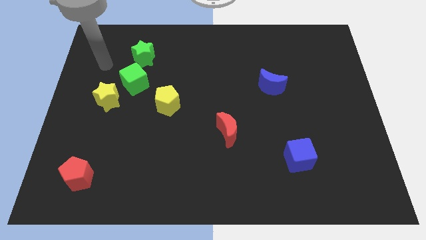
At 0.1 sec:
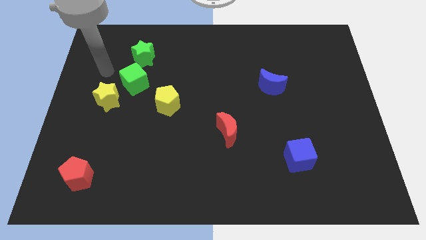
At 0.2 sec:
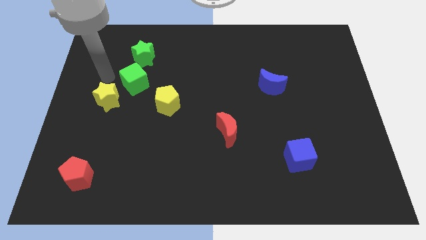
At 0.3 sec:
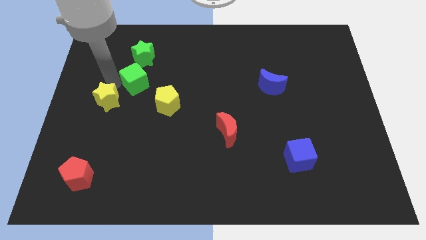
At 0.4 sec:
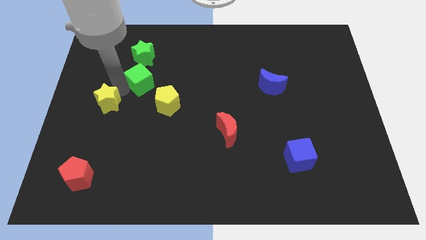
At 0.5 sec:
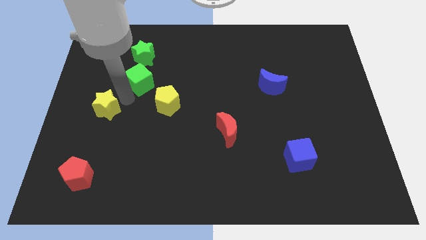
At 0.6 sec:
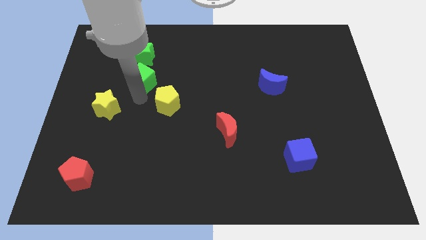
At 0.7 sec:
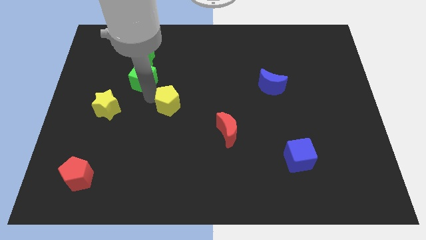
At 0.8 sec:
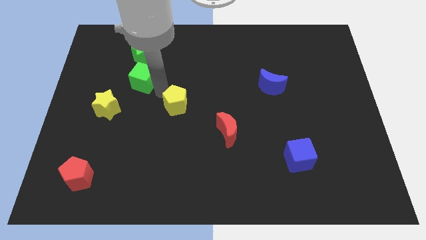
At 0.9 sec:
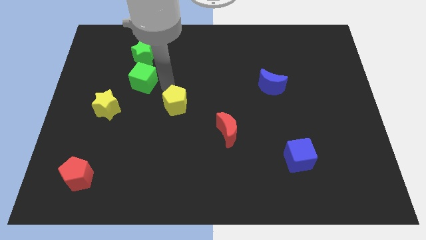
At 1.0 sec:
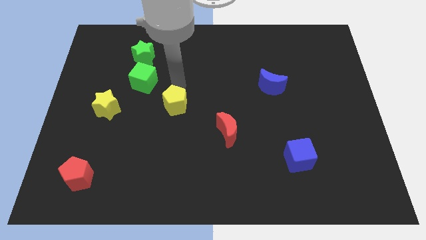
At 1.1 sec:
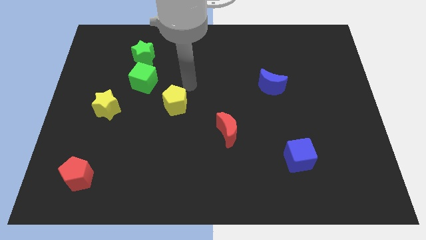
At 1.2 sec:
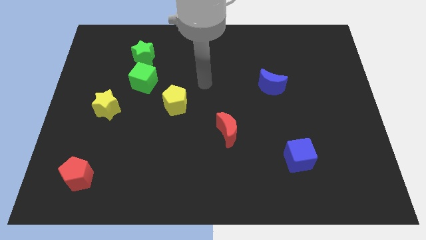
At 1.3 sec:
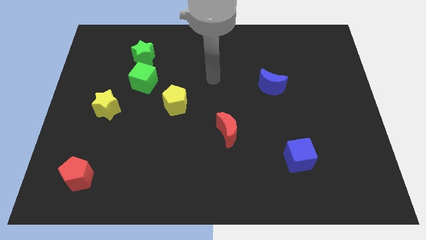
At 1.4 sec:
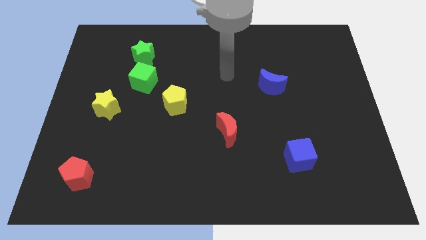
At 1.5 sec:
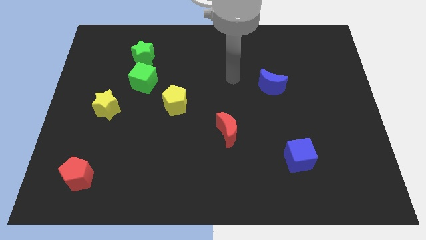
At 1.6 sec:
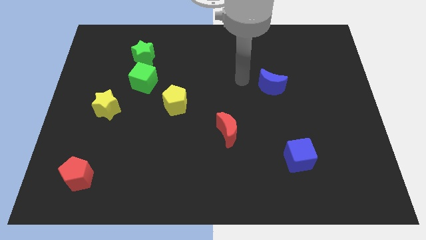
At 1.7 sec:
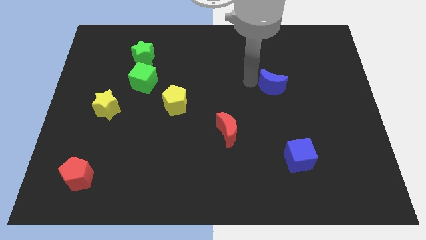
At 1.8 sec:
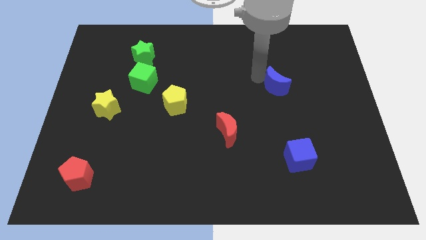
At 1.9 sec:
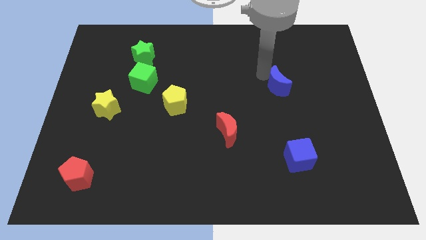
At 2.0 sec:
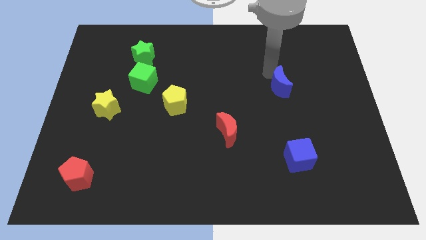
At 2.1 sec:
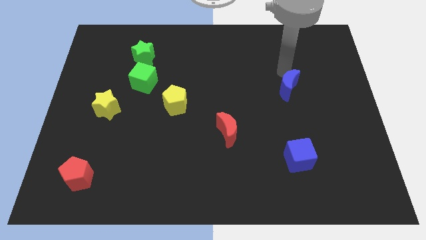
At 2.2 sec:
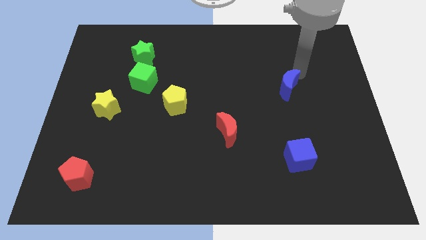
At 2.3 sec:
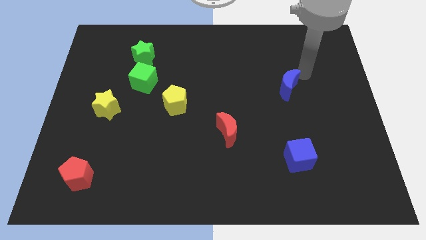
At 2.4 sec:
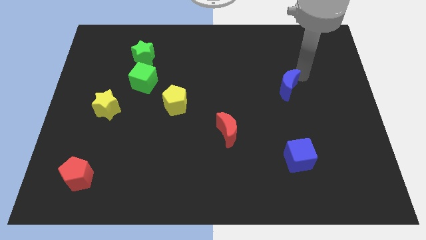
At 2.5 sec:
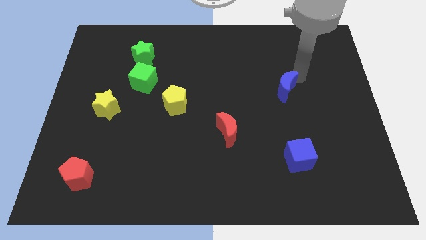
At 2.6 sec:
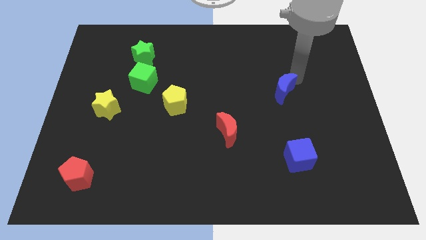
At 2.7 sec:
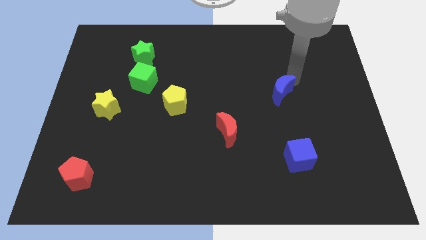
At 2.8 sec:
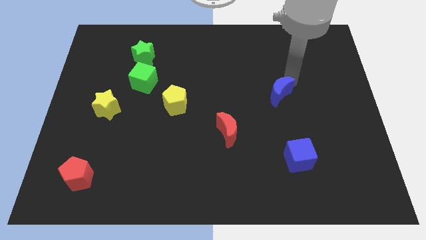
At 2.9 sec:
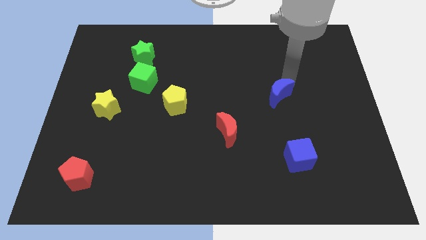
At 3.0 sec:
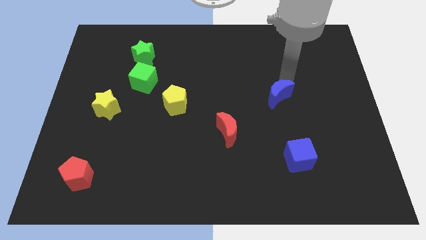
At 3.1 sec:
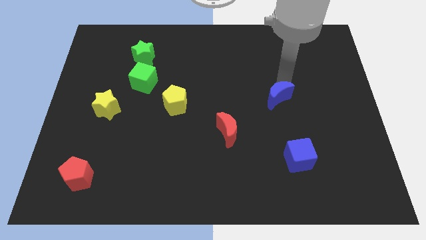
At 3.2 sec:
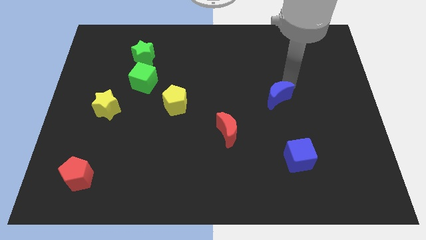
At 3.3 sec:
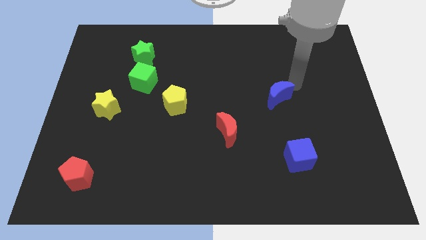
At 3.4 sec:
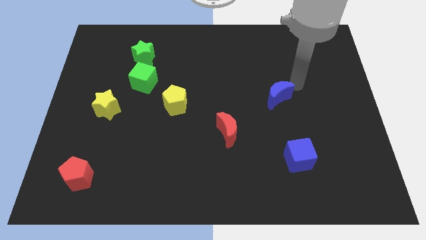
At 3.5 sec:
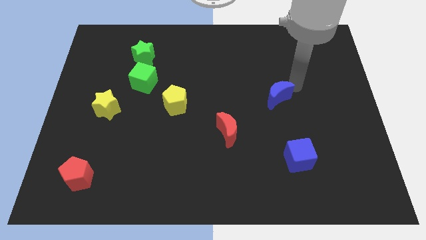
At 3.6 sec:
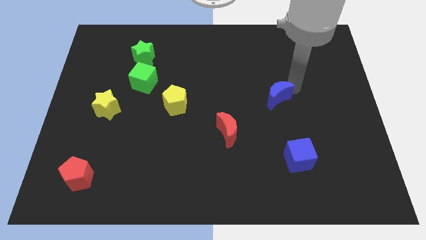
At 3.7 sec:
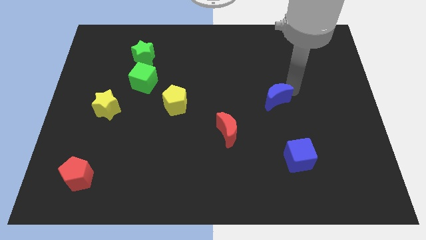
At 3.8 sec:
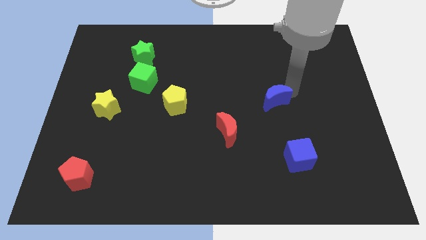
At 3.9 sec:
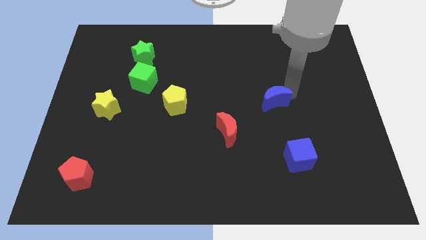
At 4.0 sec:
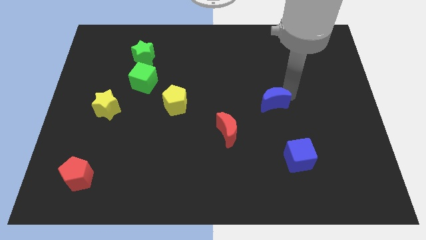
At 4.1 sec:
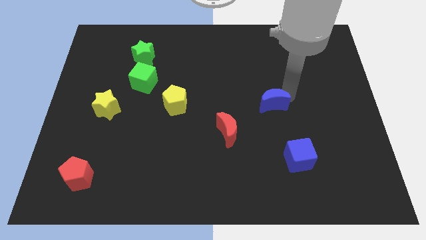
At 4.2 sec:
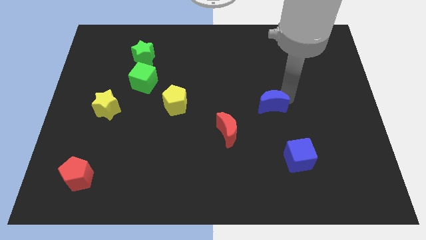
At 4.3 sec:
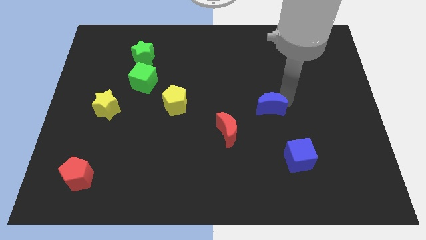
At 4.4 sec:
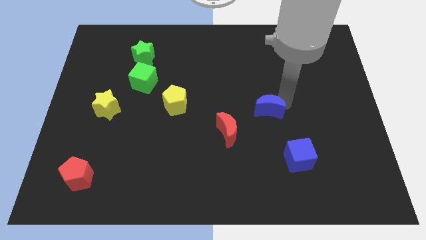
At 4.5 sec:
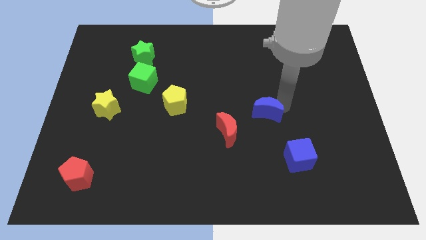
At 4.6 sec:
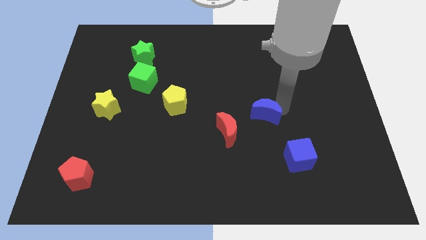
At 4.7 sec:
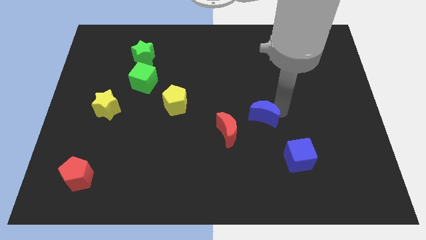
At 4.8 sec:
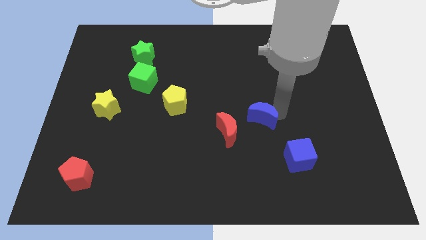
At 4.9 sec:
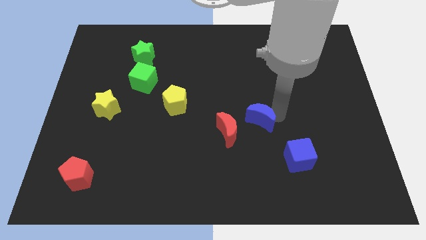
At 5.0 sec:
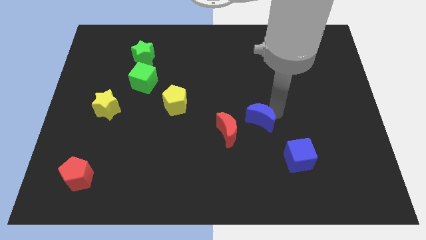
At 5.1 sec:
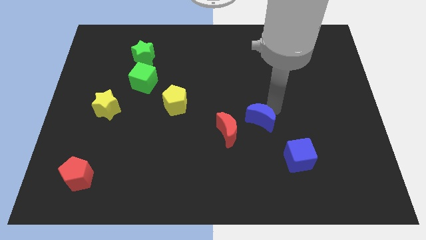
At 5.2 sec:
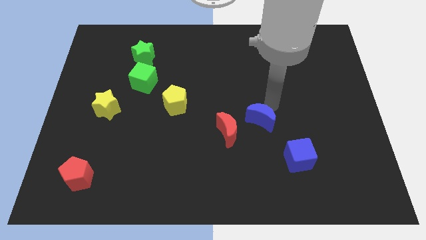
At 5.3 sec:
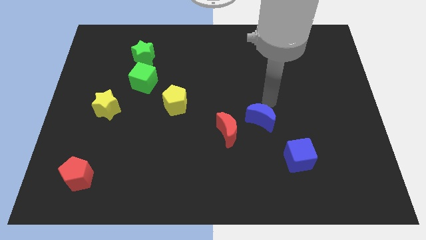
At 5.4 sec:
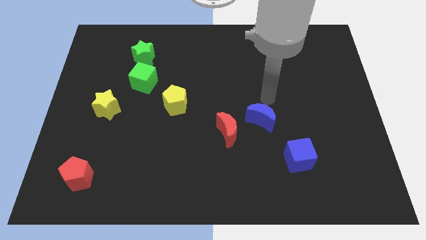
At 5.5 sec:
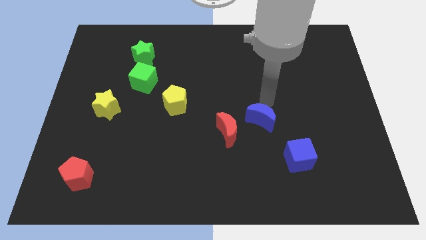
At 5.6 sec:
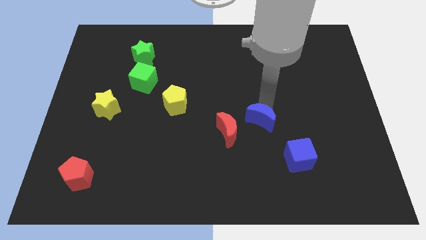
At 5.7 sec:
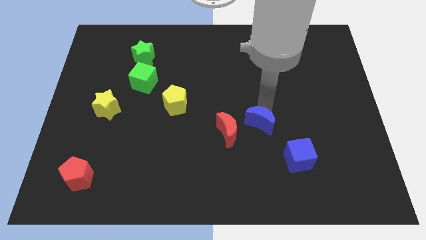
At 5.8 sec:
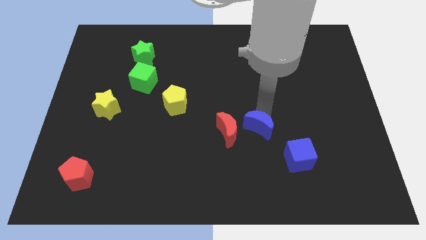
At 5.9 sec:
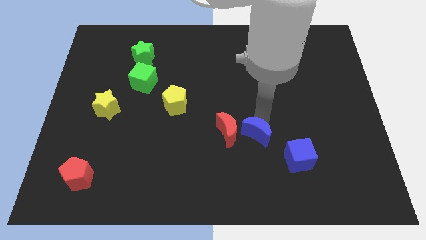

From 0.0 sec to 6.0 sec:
move the blue moon to the bottom right side of the red moon
